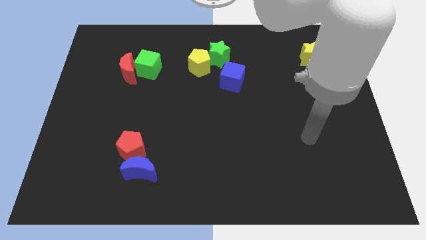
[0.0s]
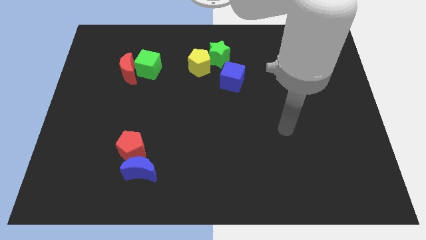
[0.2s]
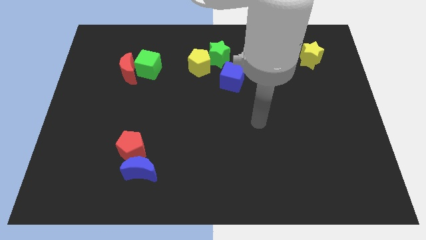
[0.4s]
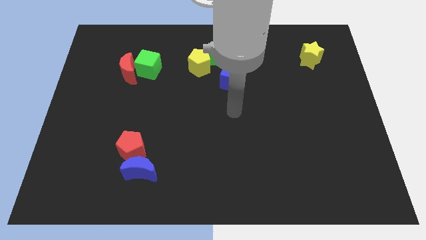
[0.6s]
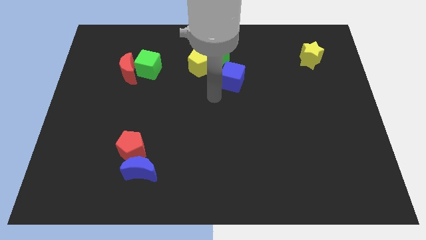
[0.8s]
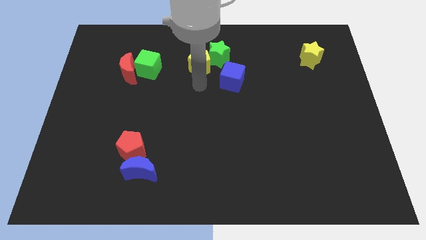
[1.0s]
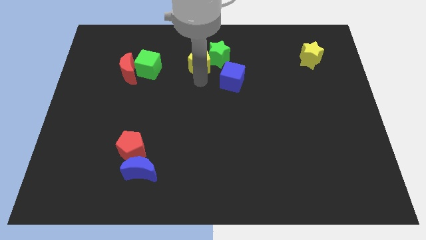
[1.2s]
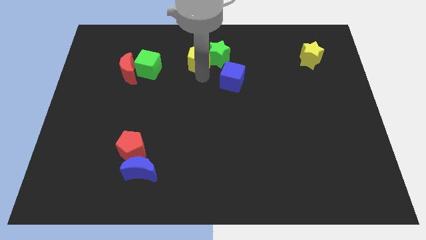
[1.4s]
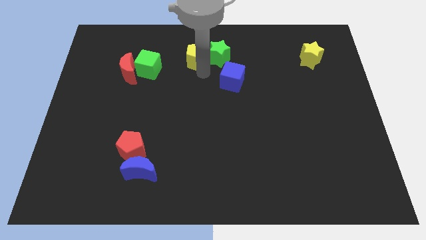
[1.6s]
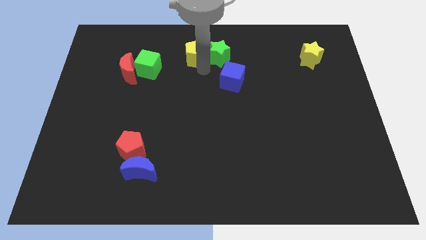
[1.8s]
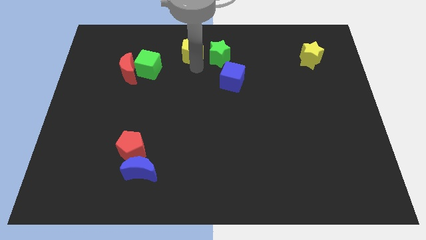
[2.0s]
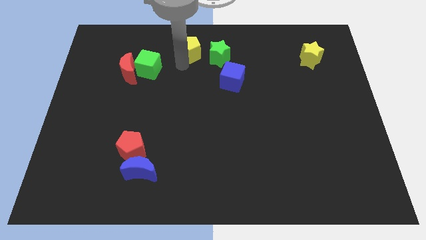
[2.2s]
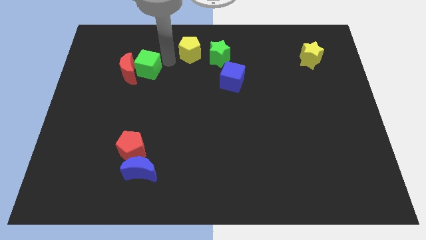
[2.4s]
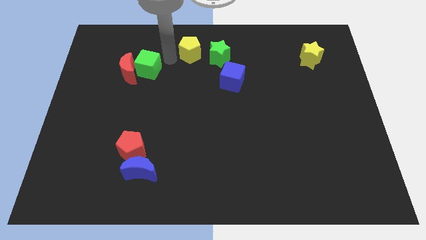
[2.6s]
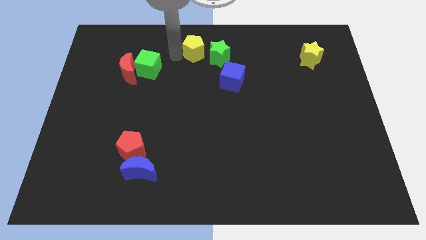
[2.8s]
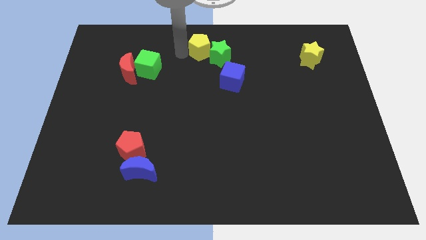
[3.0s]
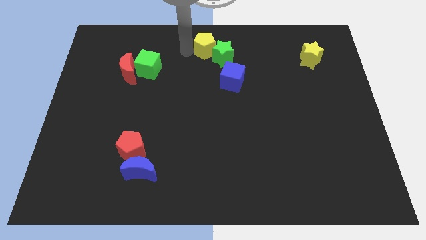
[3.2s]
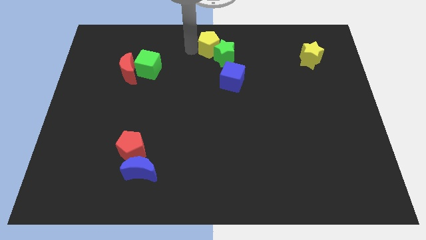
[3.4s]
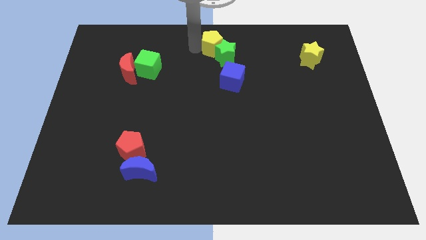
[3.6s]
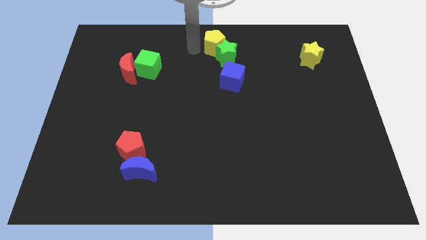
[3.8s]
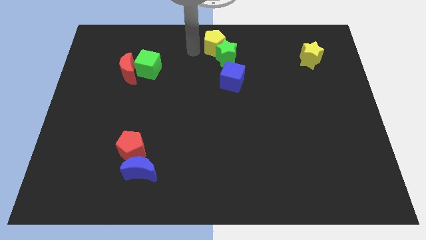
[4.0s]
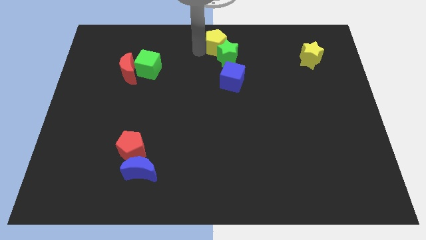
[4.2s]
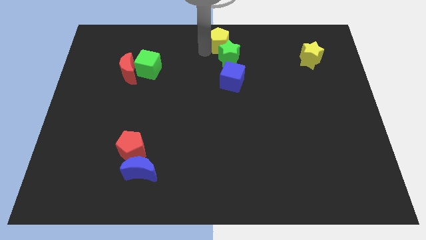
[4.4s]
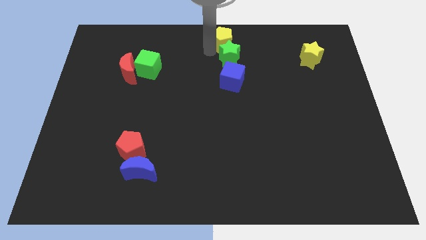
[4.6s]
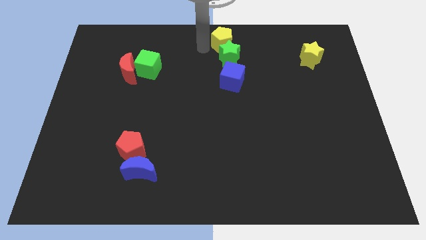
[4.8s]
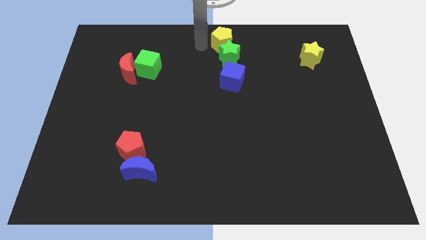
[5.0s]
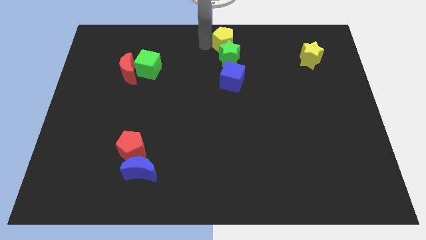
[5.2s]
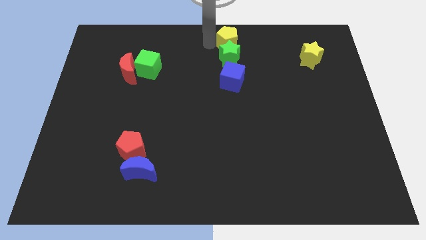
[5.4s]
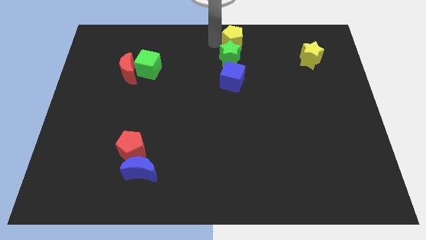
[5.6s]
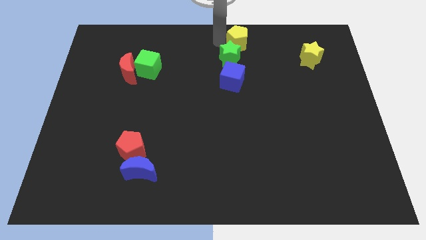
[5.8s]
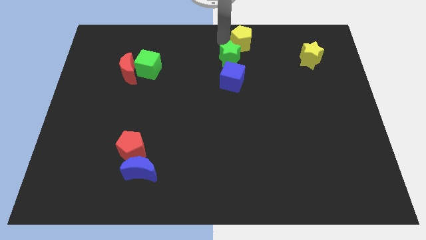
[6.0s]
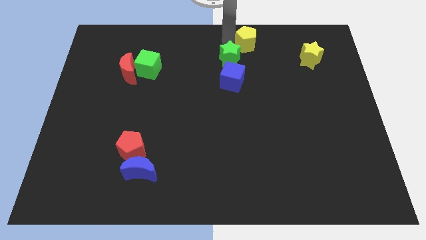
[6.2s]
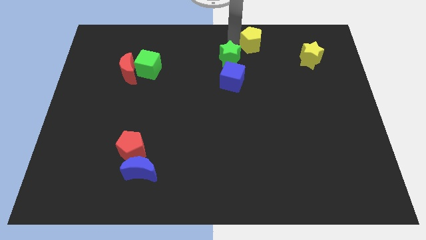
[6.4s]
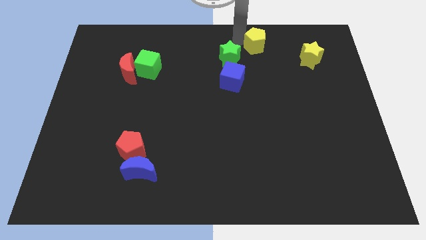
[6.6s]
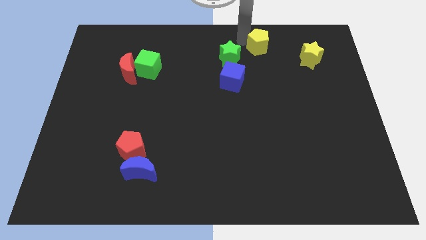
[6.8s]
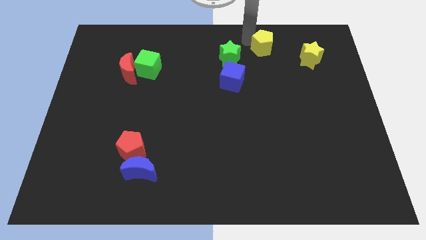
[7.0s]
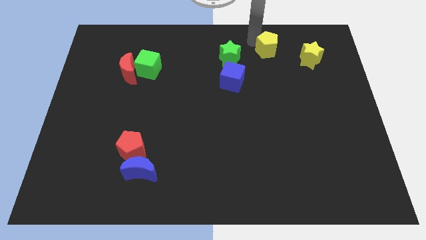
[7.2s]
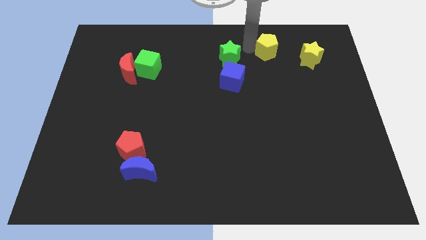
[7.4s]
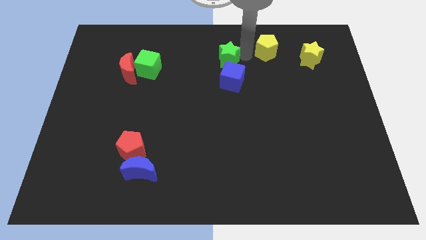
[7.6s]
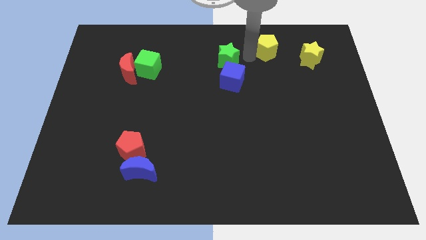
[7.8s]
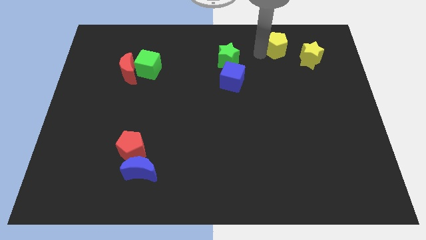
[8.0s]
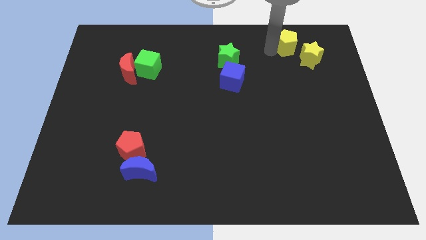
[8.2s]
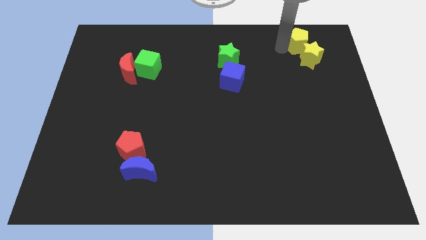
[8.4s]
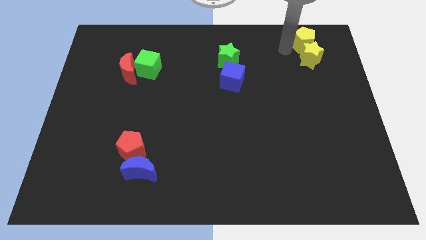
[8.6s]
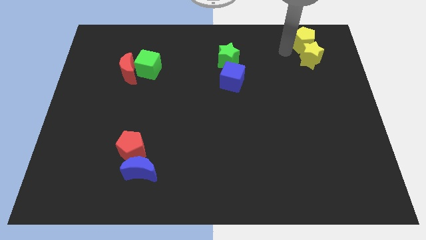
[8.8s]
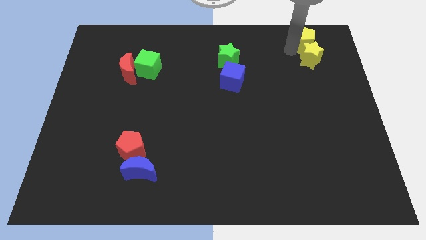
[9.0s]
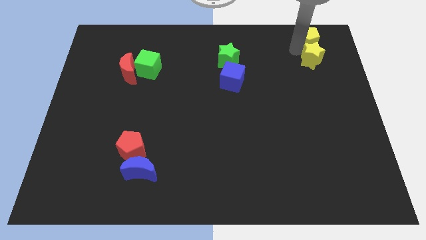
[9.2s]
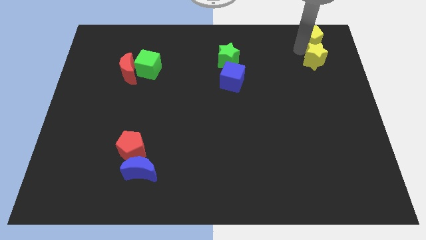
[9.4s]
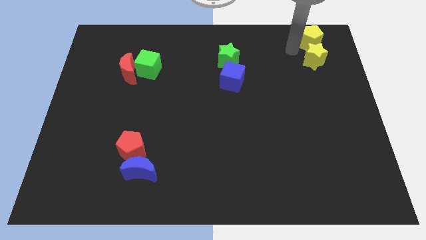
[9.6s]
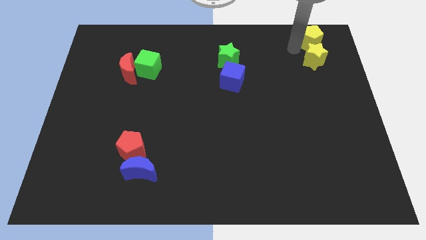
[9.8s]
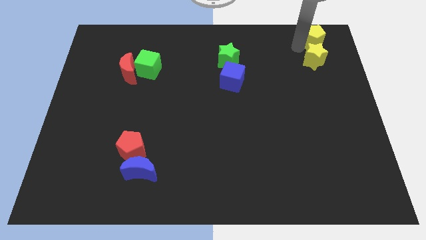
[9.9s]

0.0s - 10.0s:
push the yellow pentagon to the top right of the board
